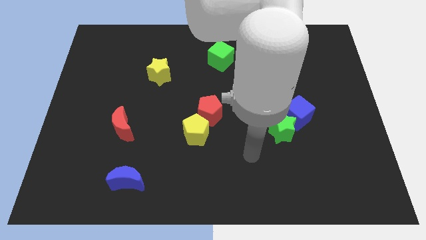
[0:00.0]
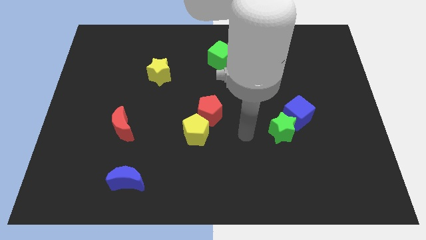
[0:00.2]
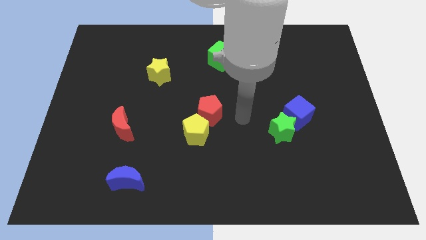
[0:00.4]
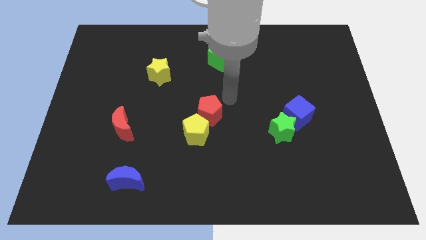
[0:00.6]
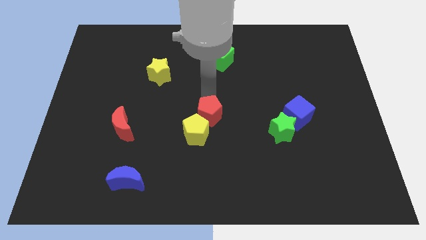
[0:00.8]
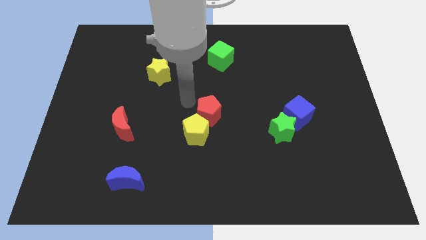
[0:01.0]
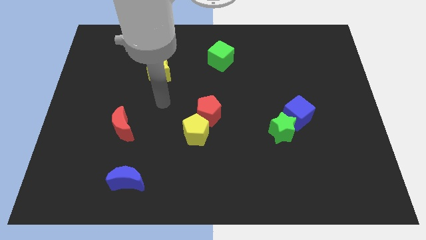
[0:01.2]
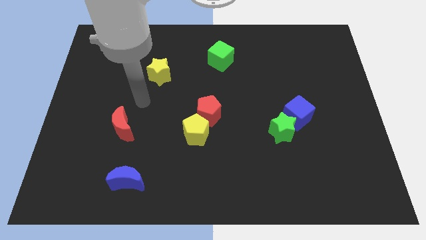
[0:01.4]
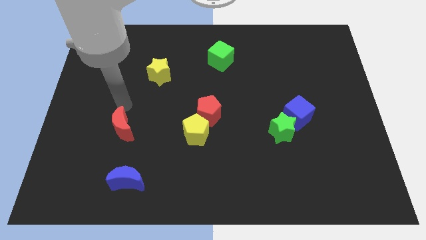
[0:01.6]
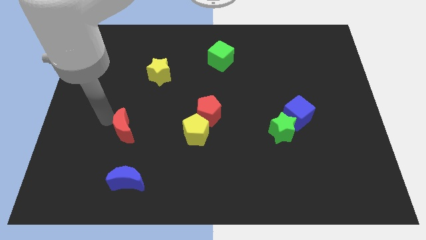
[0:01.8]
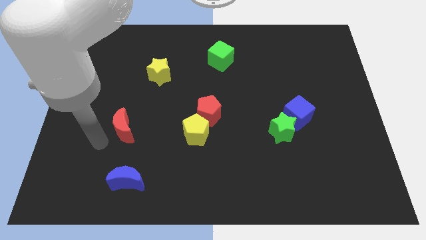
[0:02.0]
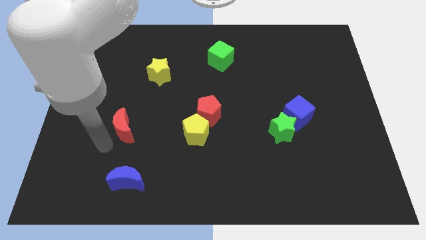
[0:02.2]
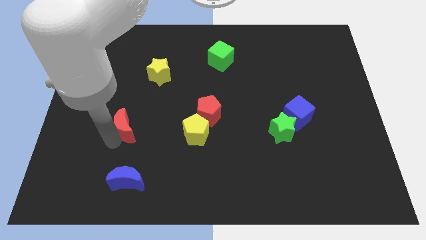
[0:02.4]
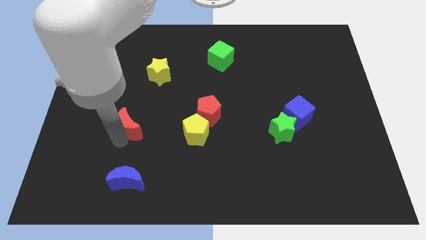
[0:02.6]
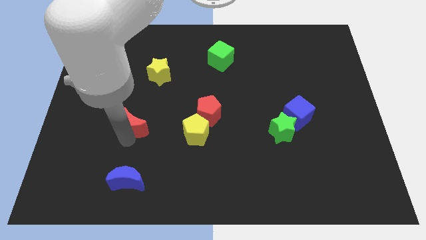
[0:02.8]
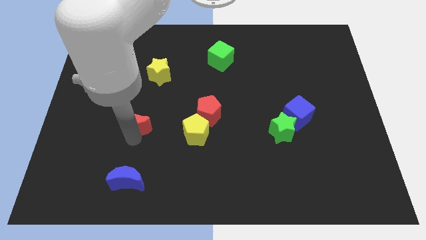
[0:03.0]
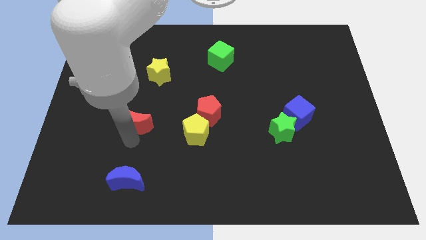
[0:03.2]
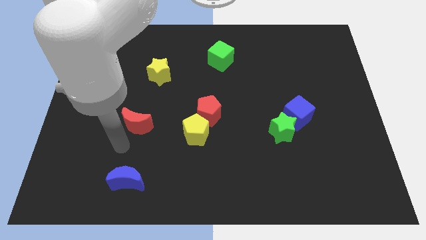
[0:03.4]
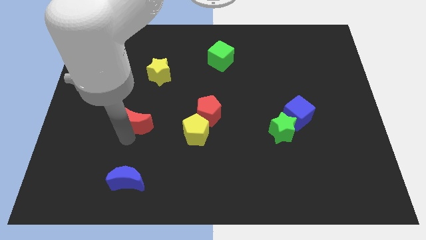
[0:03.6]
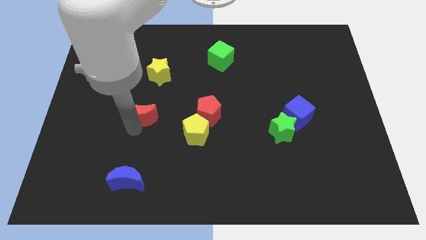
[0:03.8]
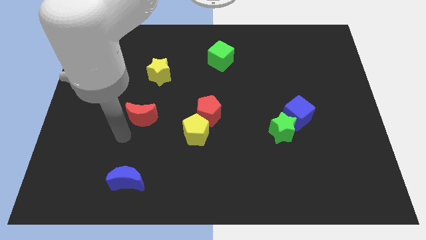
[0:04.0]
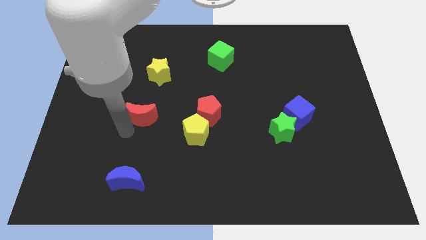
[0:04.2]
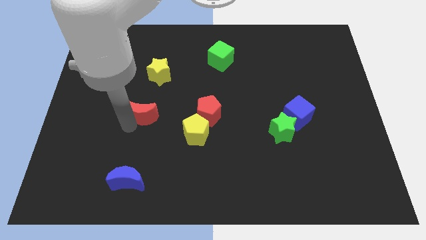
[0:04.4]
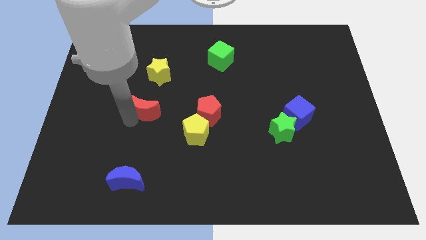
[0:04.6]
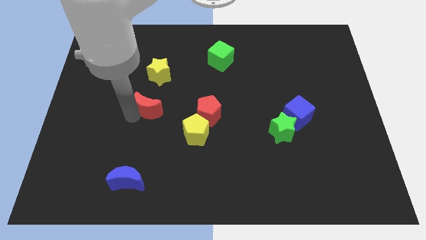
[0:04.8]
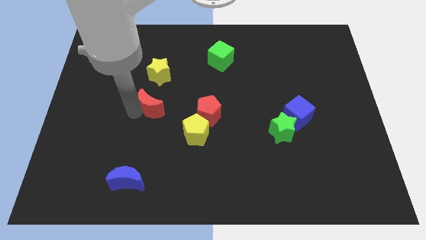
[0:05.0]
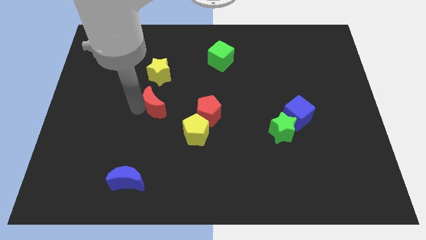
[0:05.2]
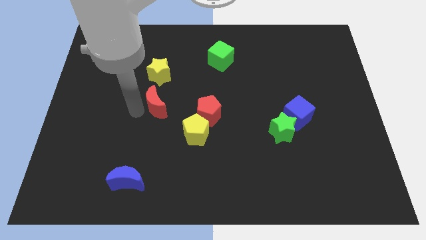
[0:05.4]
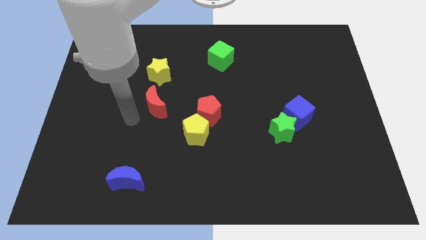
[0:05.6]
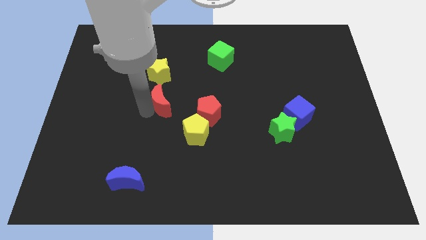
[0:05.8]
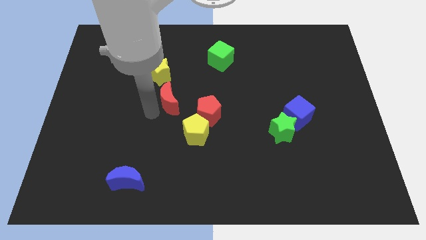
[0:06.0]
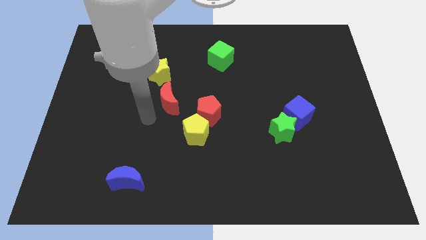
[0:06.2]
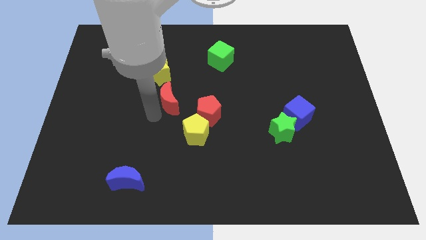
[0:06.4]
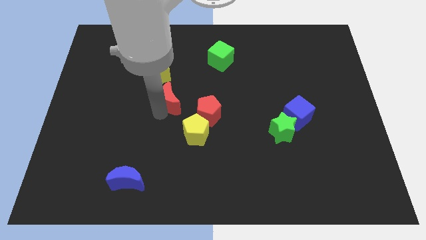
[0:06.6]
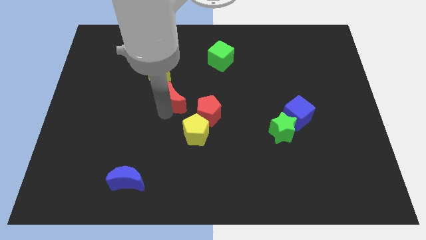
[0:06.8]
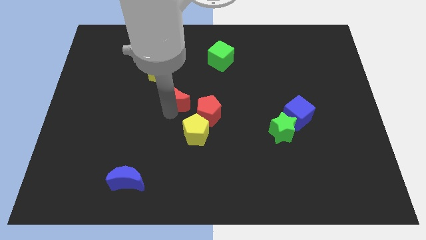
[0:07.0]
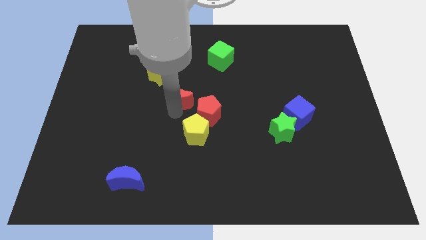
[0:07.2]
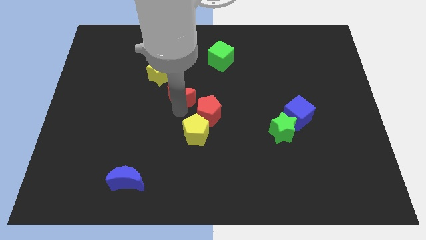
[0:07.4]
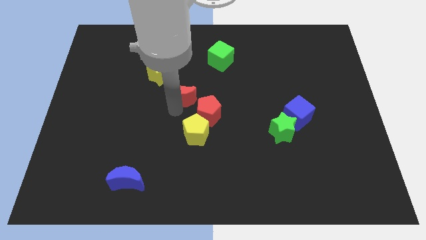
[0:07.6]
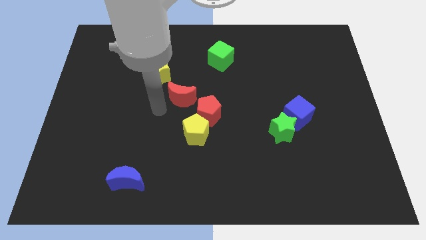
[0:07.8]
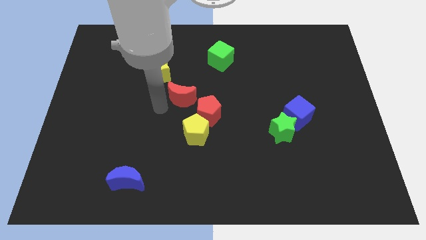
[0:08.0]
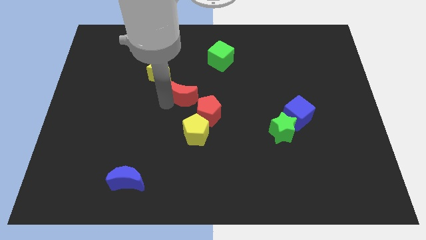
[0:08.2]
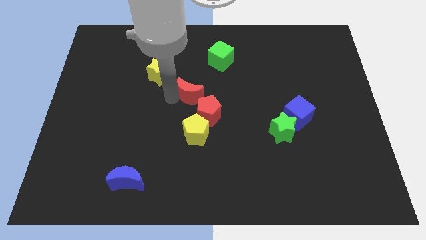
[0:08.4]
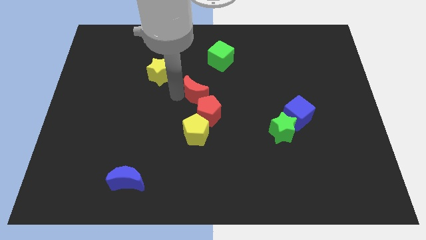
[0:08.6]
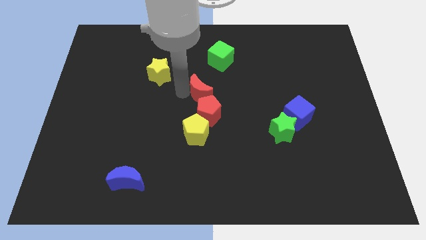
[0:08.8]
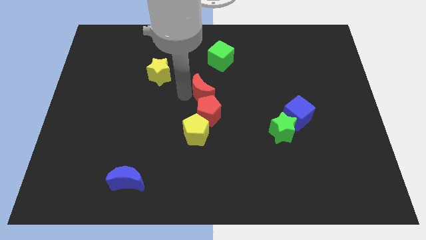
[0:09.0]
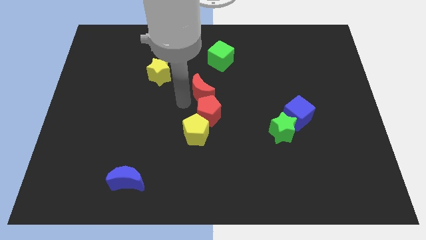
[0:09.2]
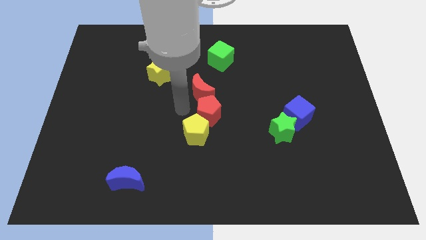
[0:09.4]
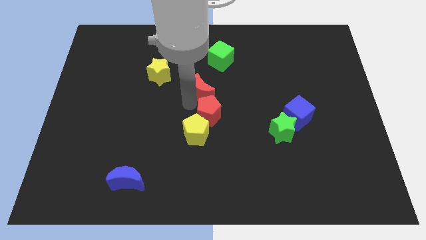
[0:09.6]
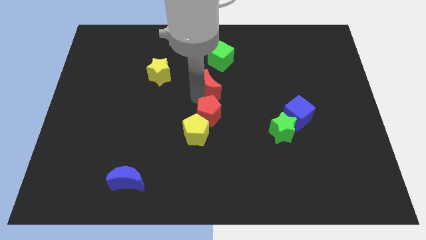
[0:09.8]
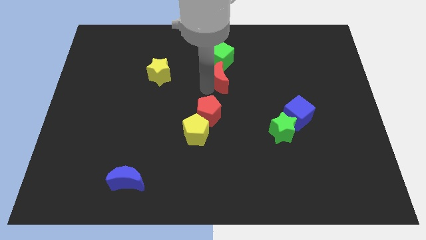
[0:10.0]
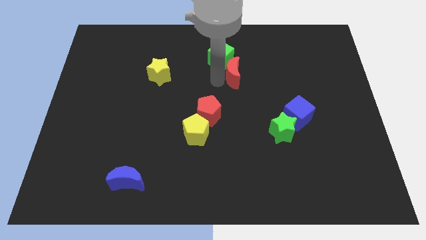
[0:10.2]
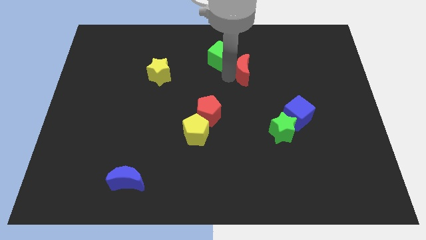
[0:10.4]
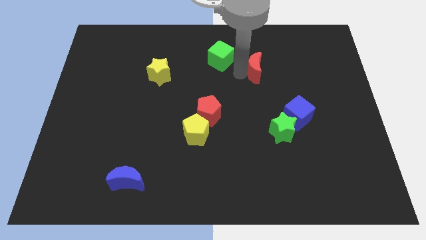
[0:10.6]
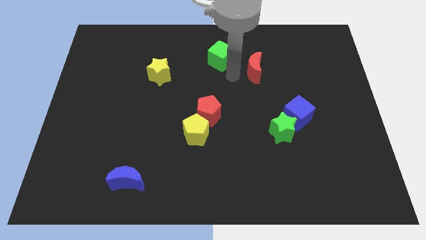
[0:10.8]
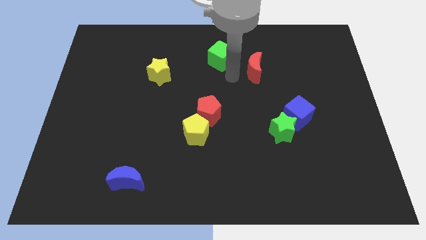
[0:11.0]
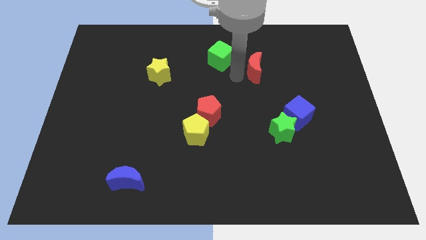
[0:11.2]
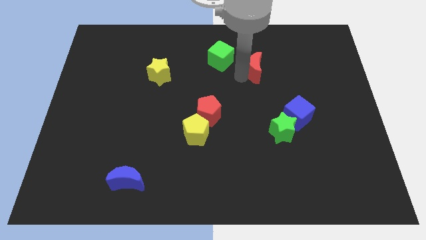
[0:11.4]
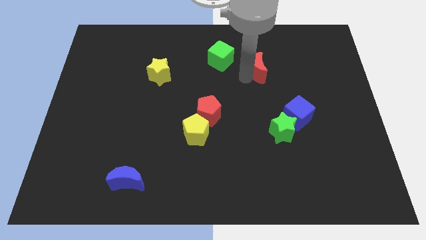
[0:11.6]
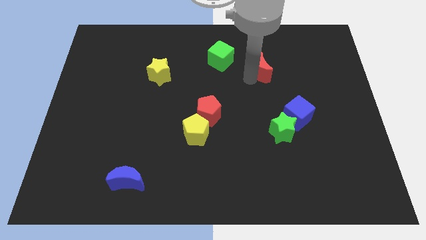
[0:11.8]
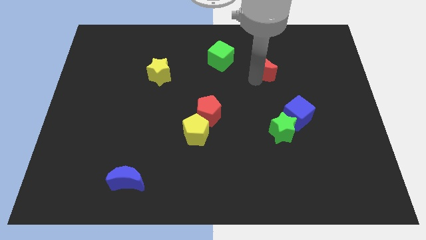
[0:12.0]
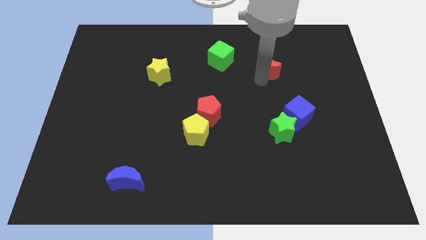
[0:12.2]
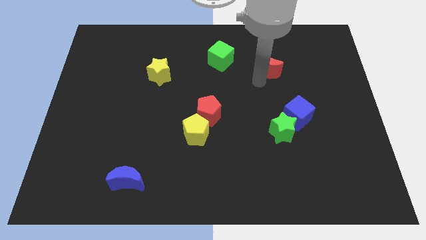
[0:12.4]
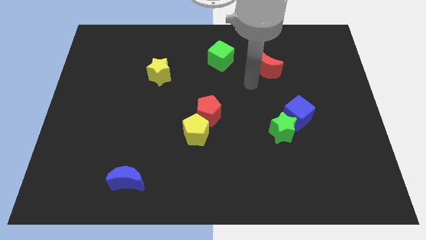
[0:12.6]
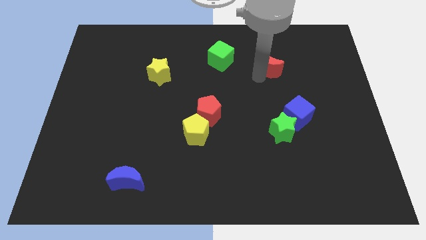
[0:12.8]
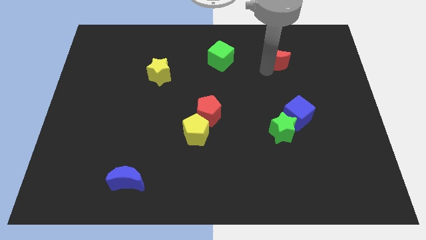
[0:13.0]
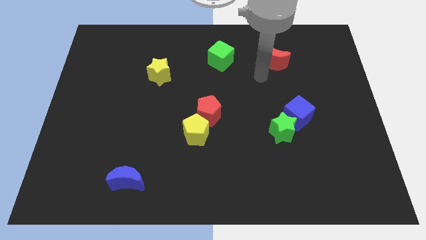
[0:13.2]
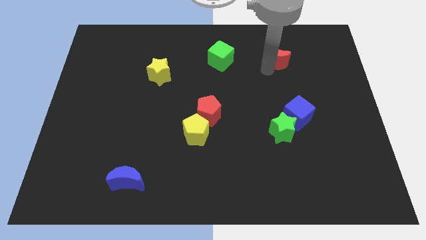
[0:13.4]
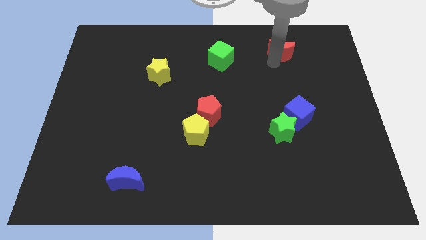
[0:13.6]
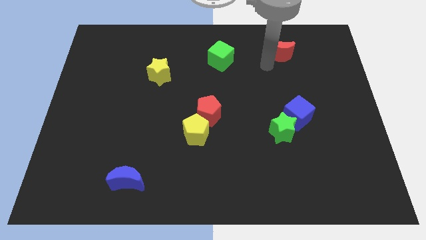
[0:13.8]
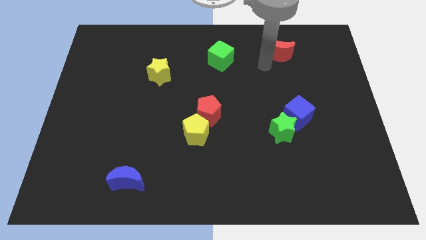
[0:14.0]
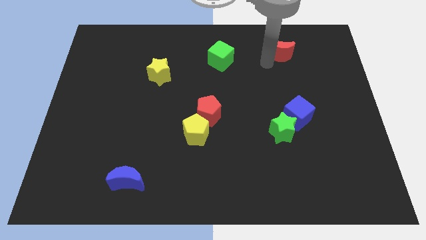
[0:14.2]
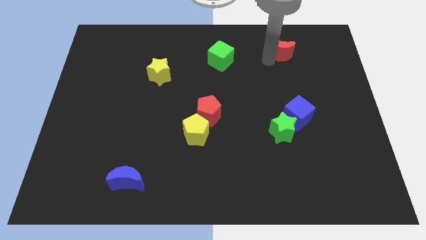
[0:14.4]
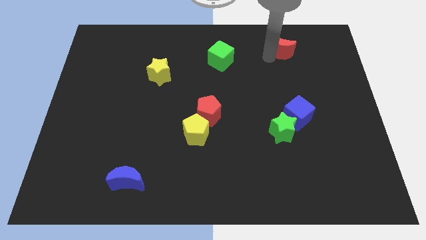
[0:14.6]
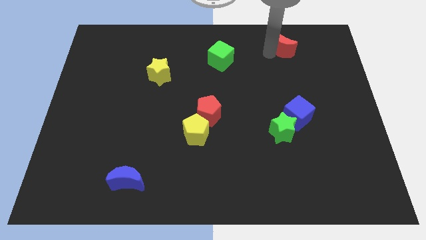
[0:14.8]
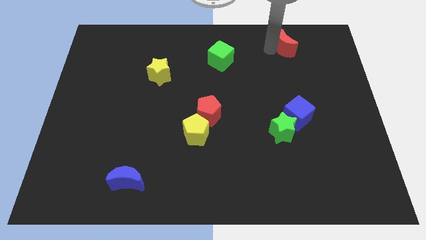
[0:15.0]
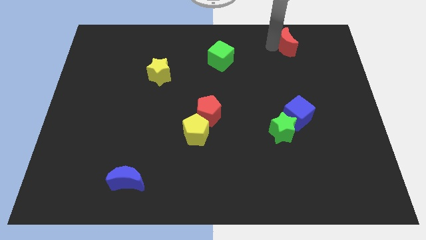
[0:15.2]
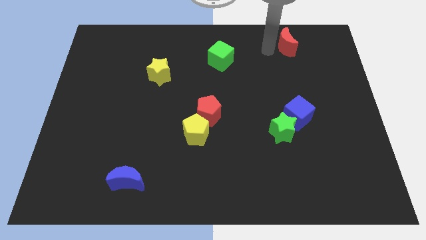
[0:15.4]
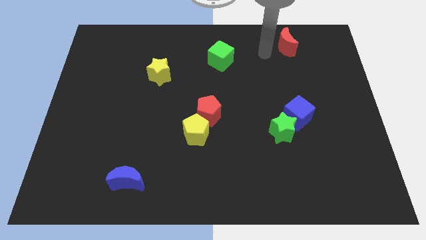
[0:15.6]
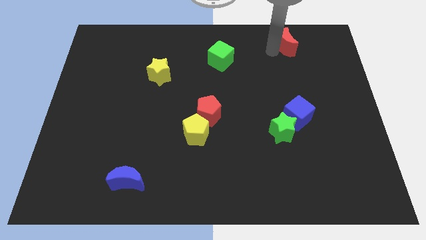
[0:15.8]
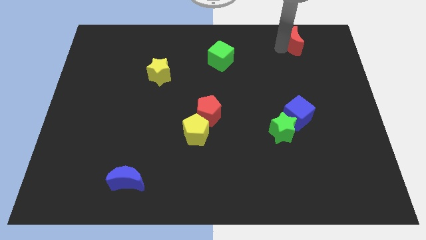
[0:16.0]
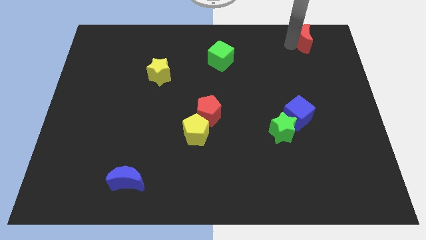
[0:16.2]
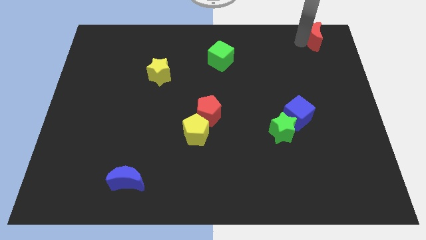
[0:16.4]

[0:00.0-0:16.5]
push the red moon to the top right corner
